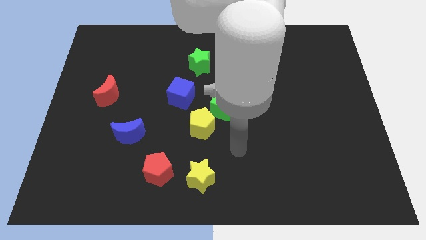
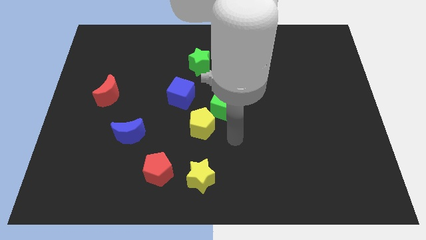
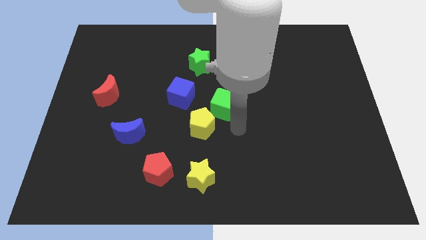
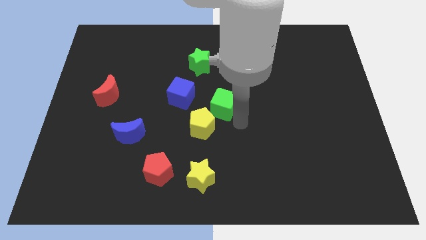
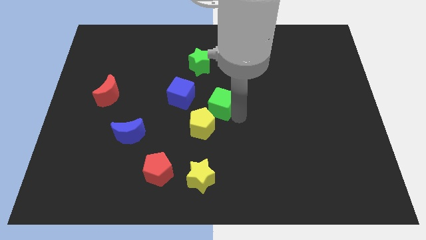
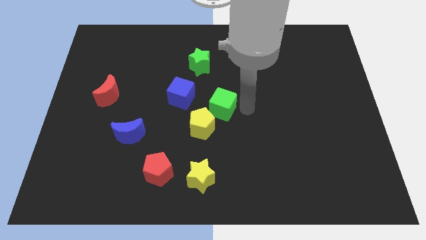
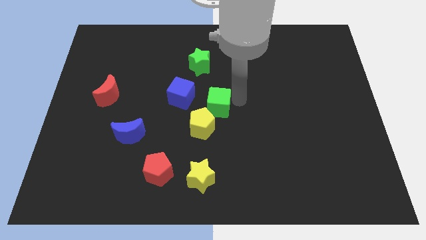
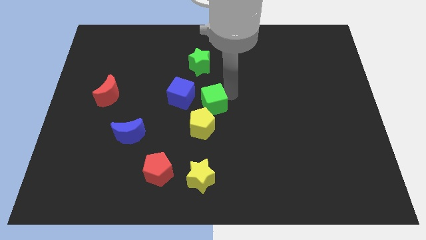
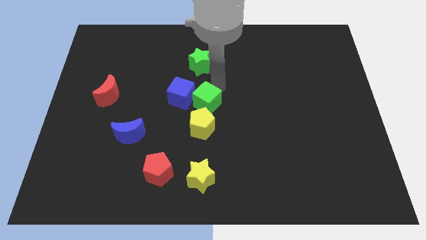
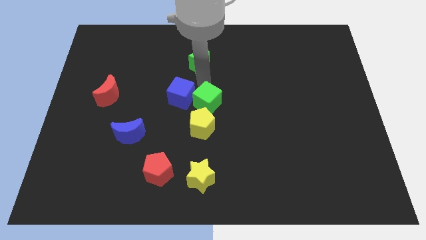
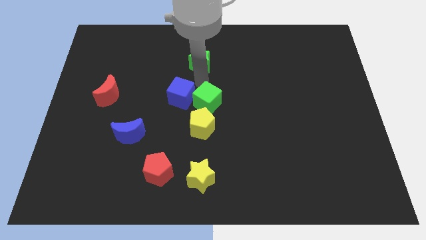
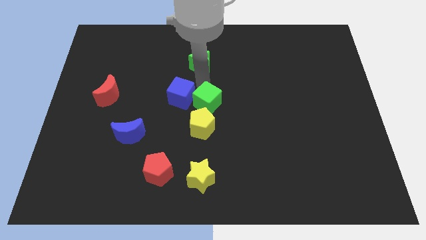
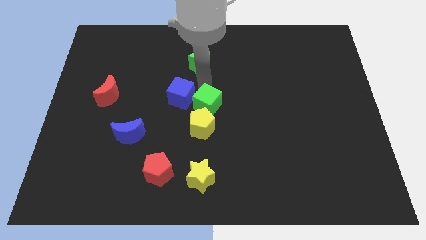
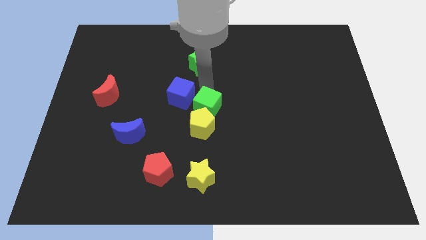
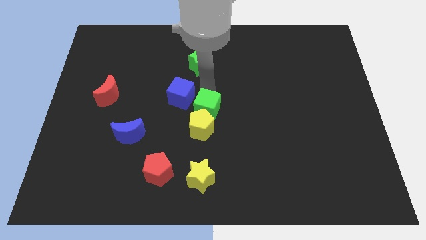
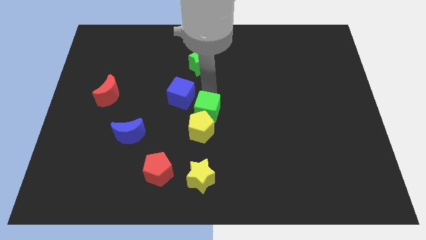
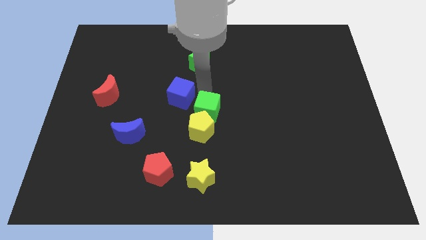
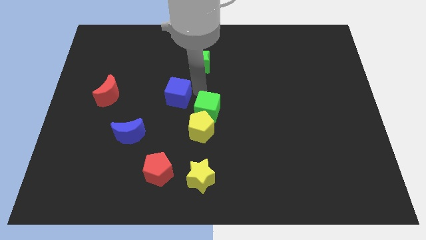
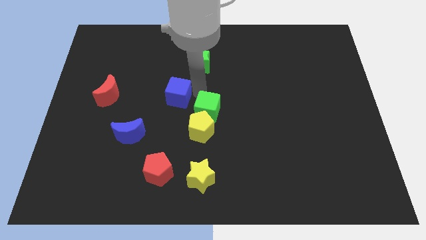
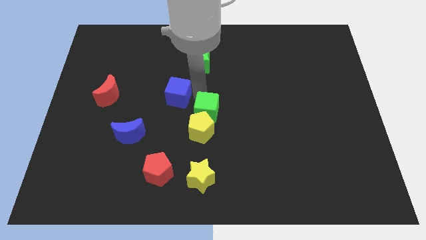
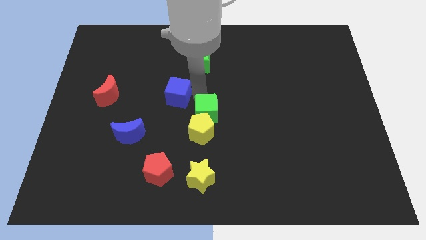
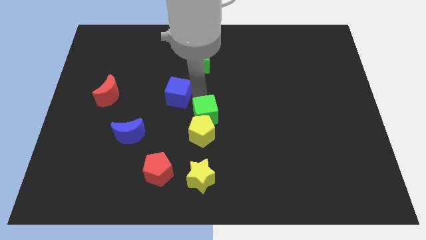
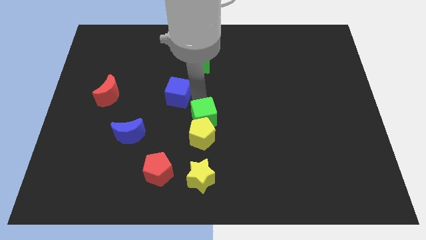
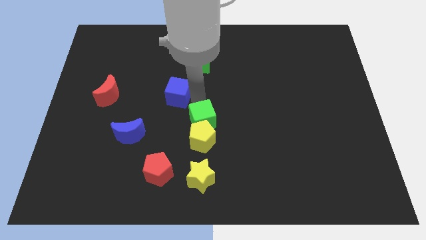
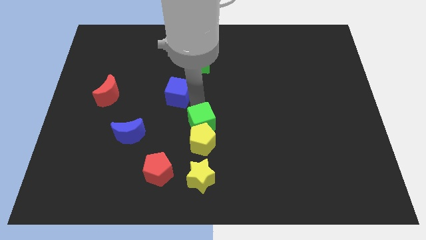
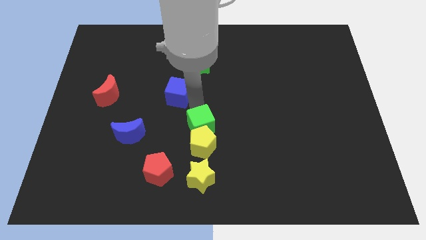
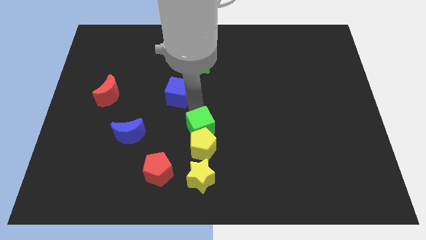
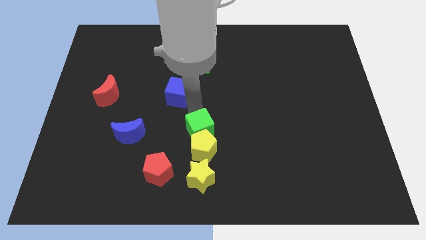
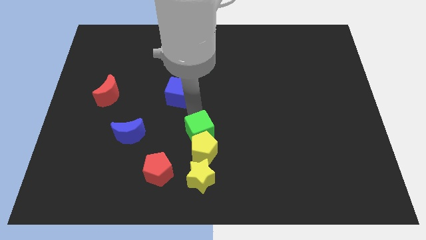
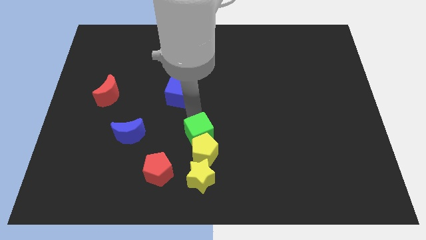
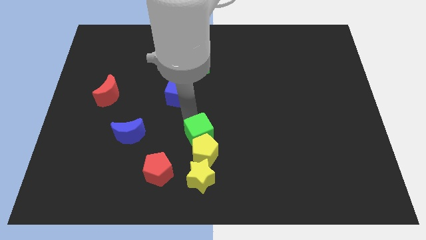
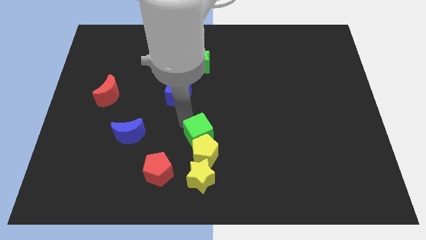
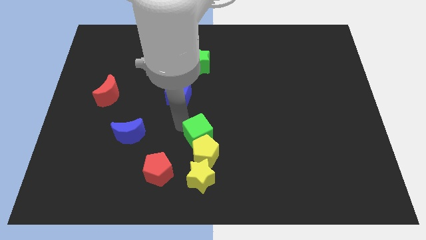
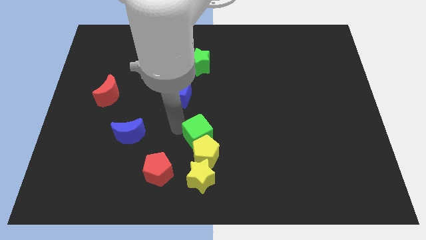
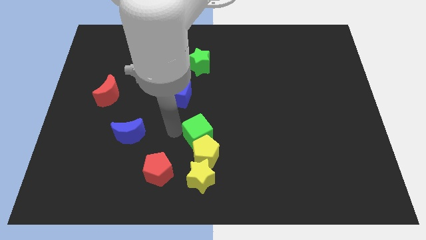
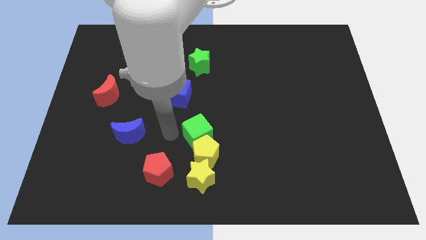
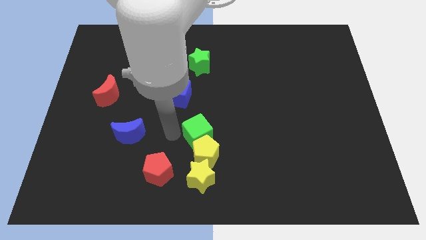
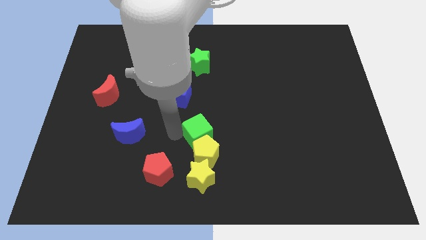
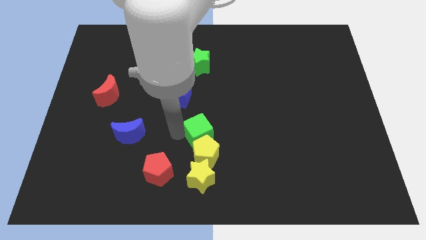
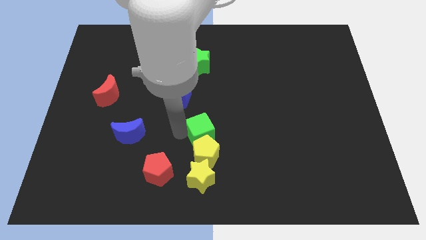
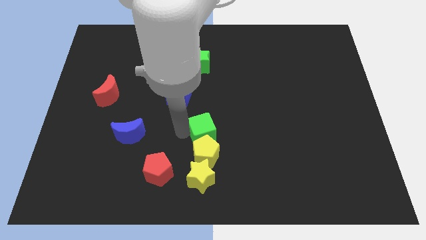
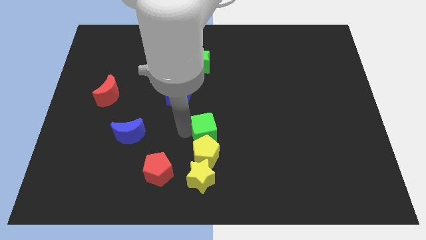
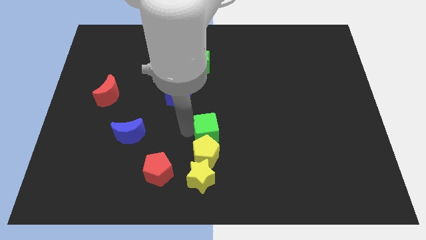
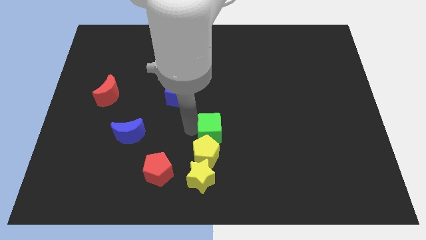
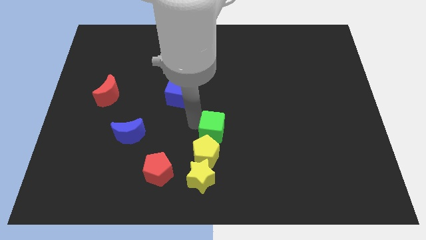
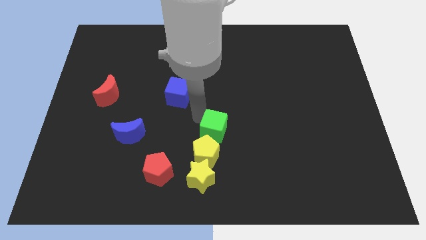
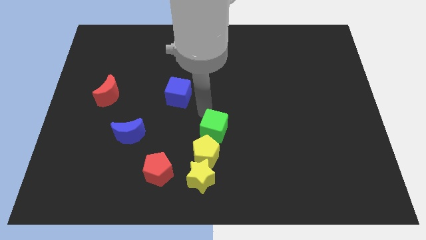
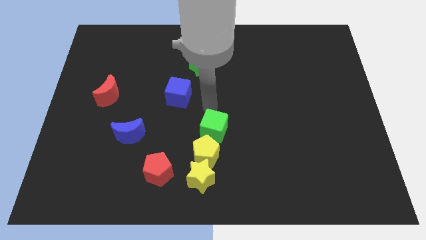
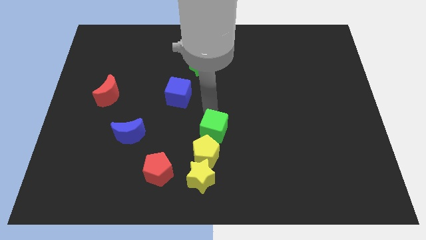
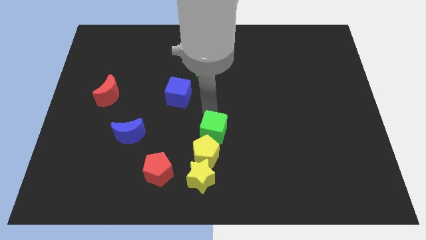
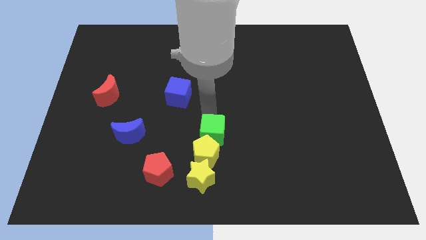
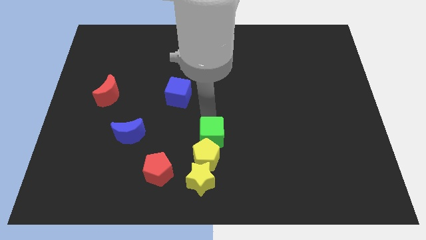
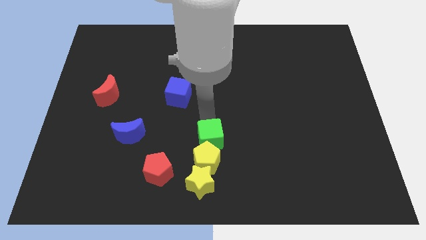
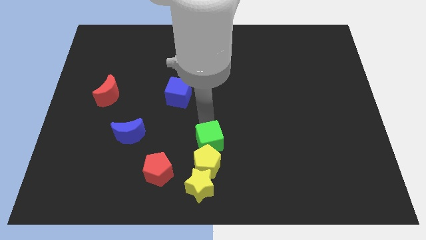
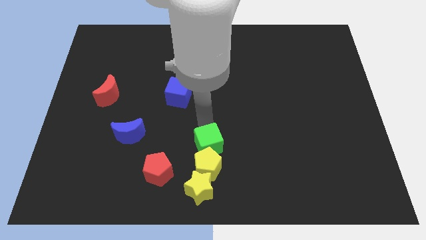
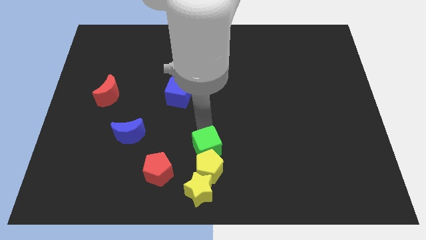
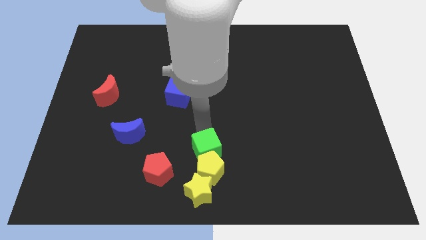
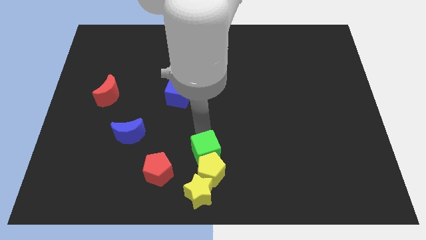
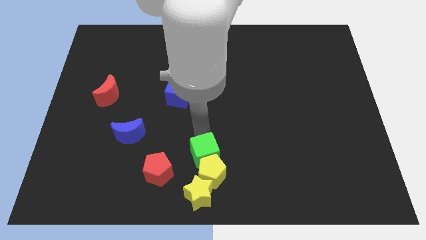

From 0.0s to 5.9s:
move the green cube to the bottom side
